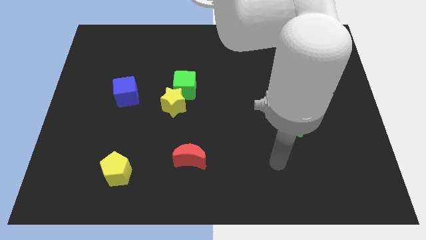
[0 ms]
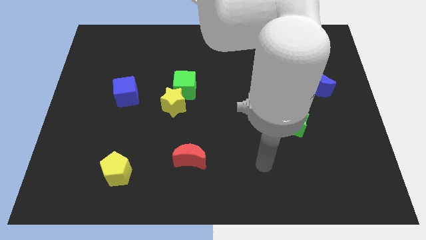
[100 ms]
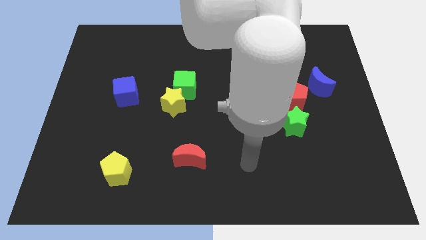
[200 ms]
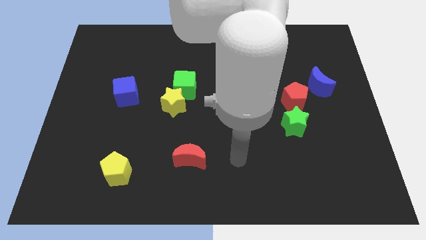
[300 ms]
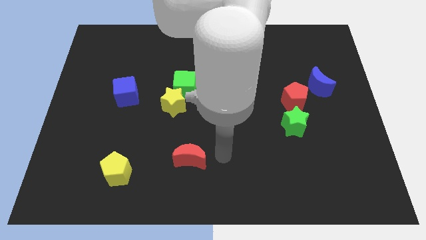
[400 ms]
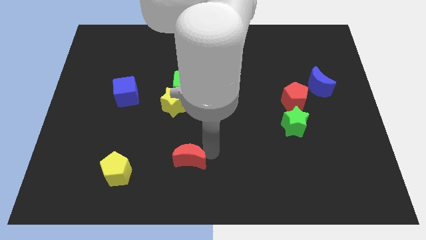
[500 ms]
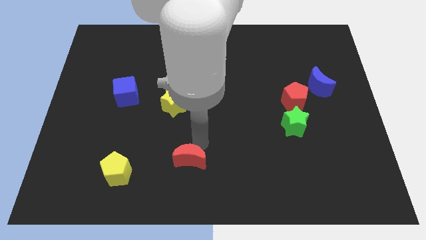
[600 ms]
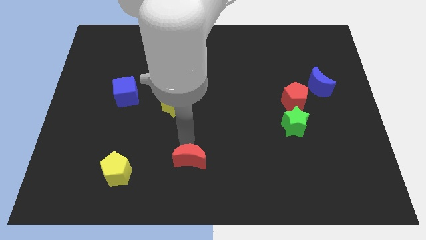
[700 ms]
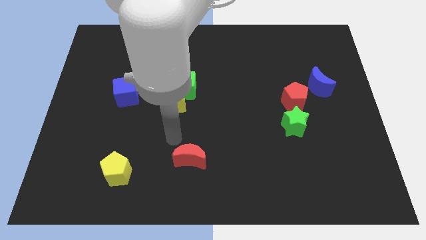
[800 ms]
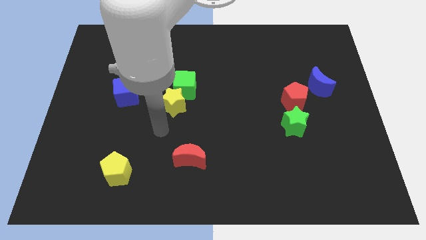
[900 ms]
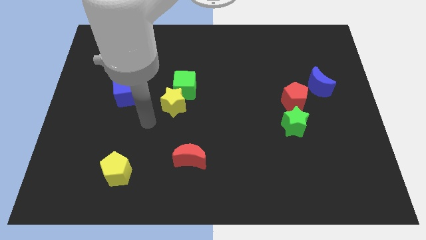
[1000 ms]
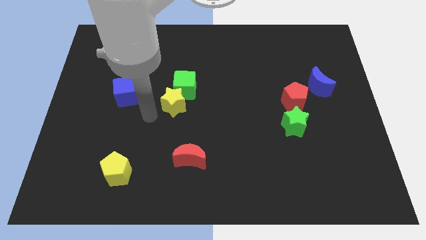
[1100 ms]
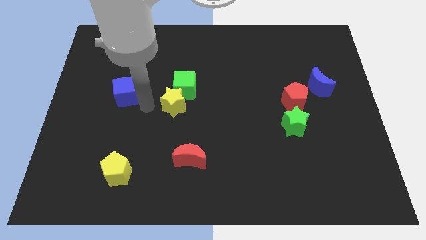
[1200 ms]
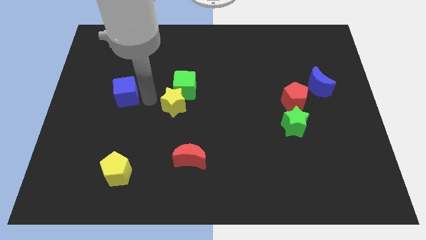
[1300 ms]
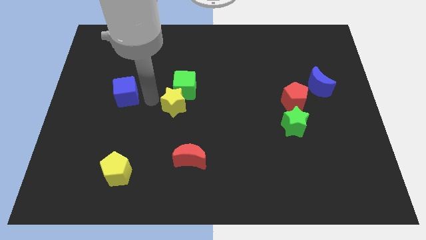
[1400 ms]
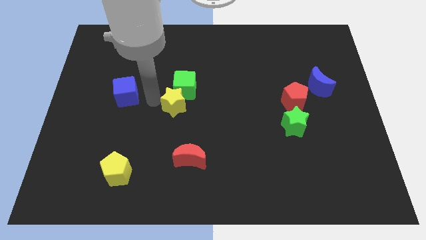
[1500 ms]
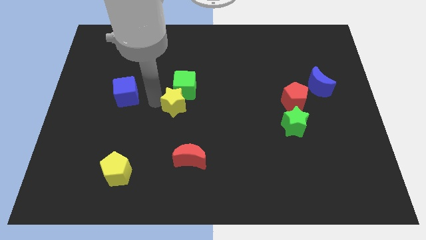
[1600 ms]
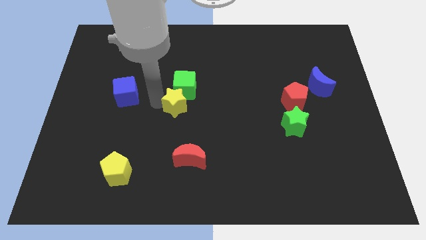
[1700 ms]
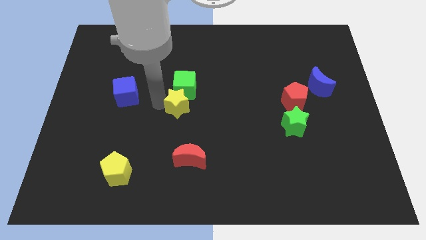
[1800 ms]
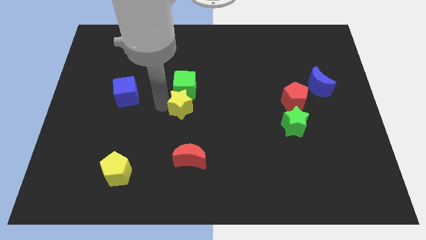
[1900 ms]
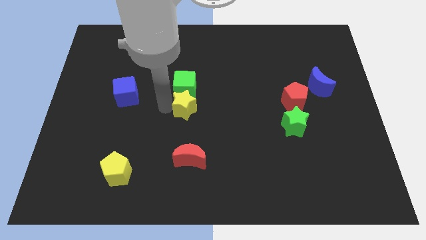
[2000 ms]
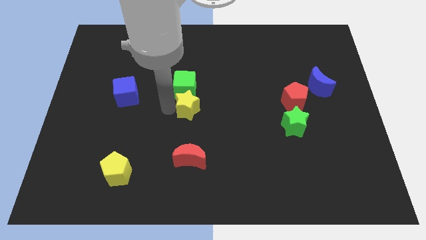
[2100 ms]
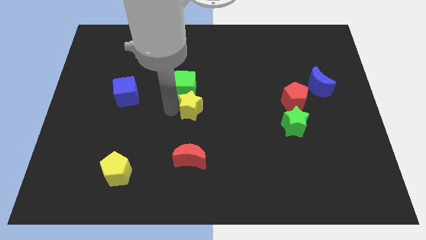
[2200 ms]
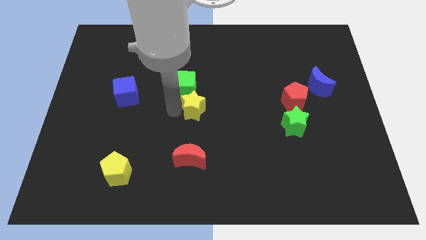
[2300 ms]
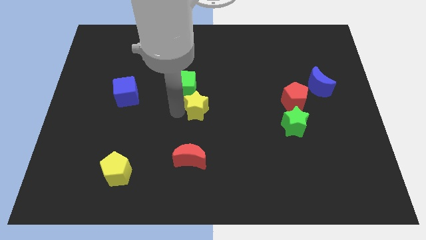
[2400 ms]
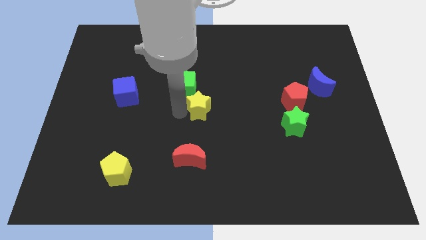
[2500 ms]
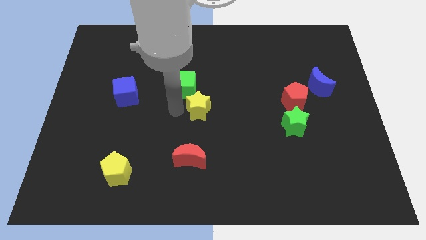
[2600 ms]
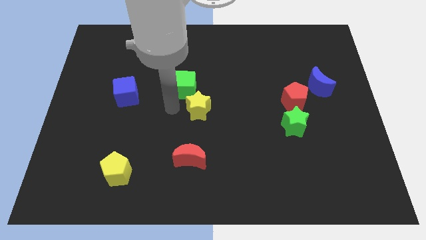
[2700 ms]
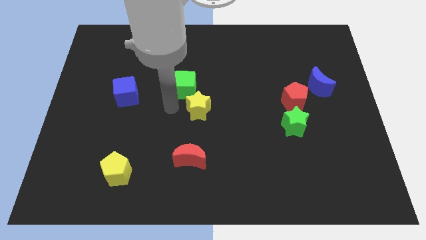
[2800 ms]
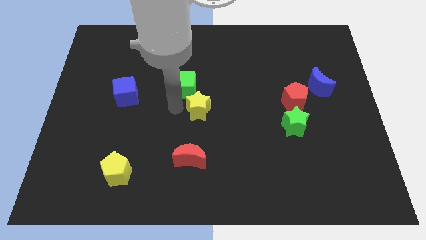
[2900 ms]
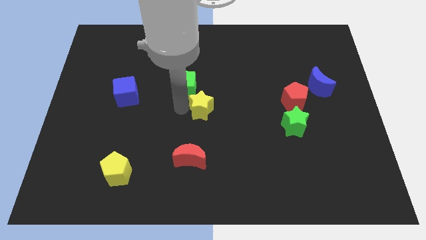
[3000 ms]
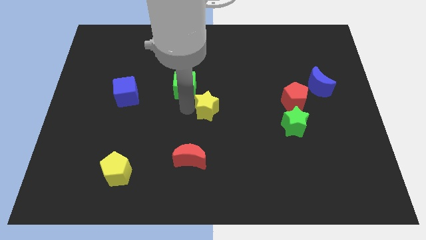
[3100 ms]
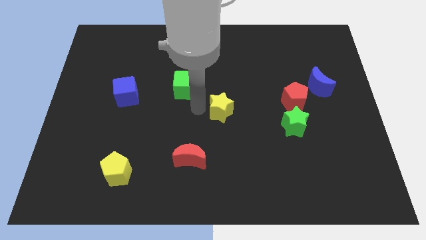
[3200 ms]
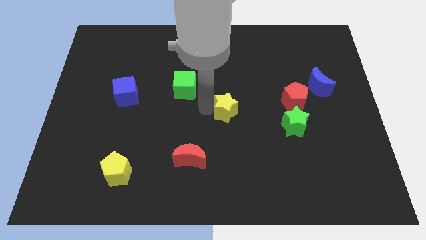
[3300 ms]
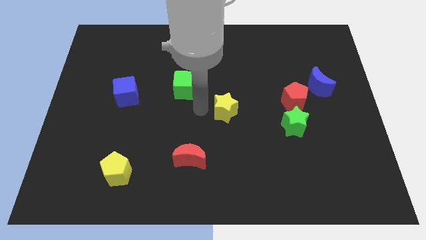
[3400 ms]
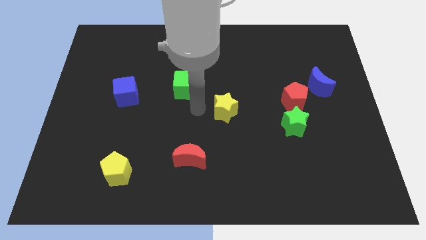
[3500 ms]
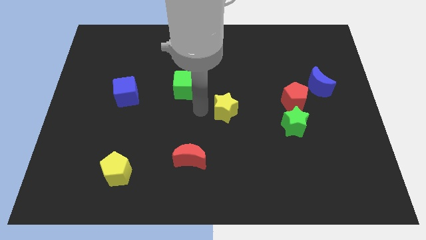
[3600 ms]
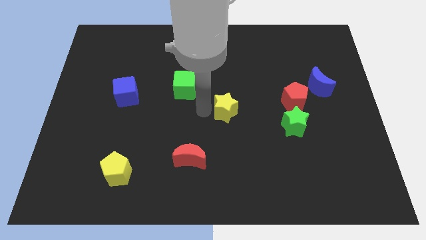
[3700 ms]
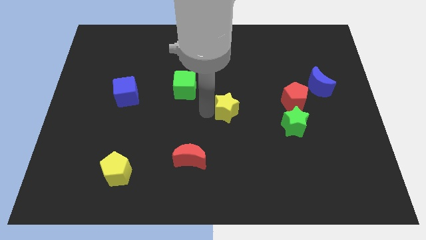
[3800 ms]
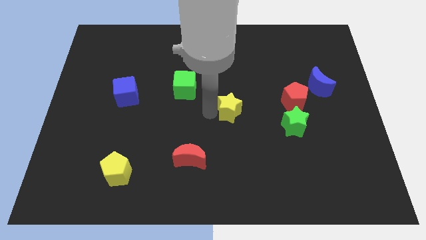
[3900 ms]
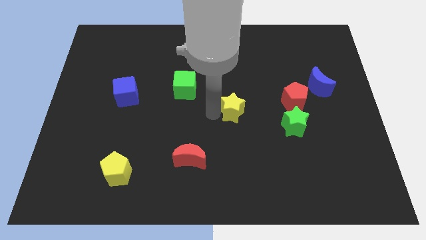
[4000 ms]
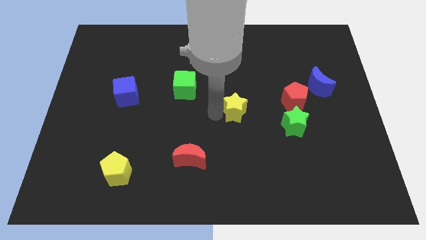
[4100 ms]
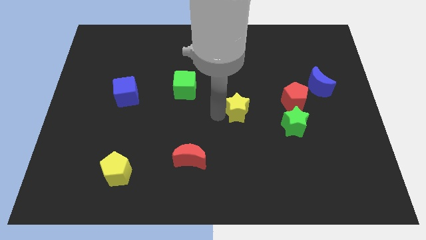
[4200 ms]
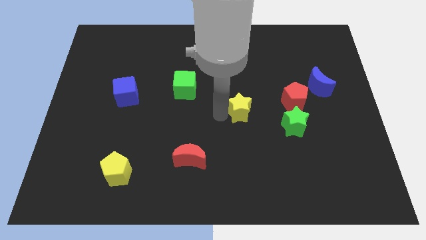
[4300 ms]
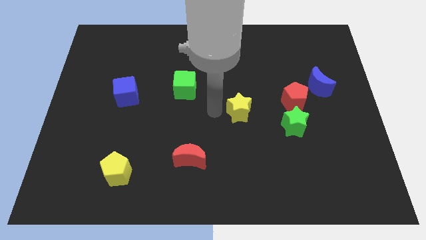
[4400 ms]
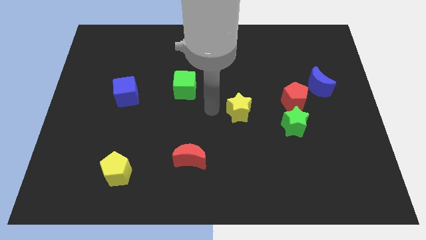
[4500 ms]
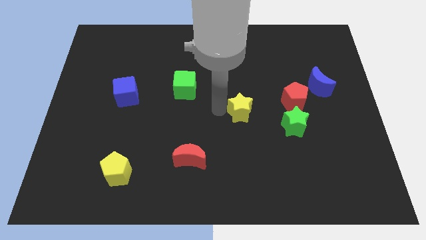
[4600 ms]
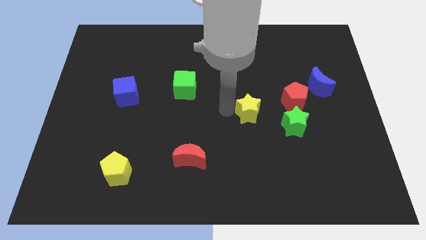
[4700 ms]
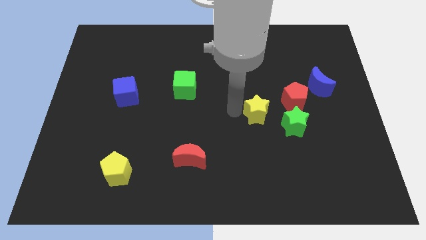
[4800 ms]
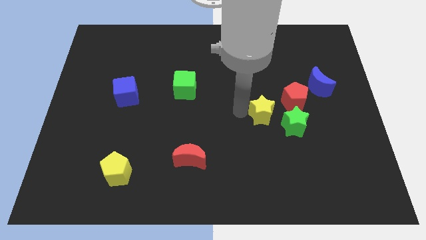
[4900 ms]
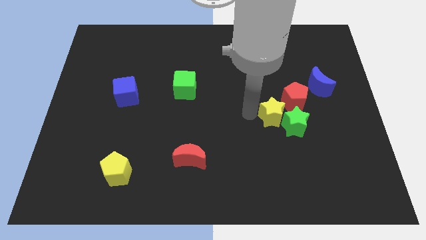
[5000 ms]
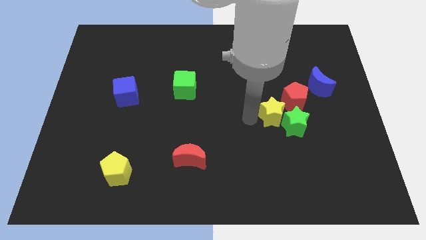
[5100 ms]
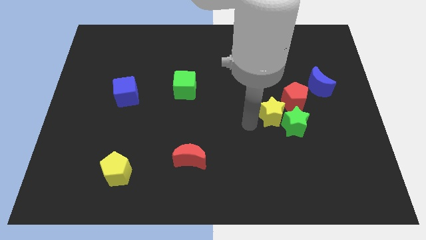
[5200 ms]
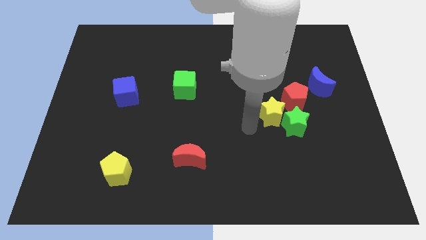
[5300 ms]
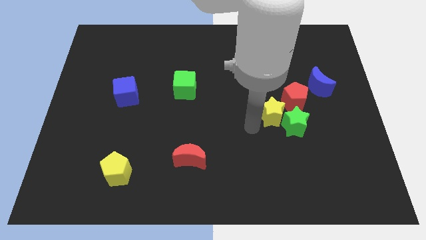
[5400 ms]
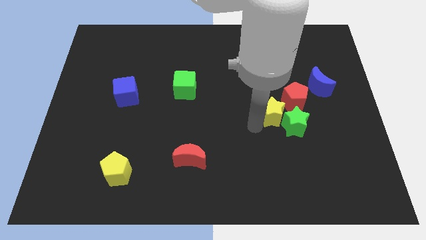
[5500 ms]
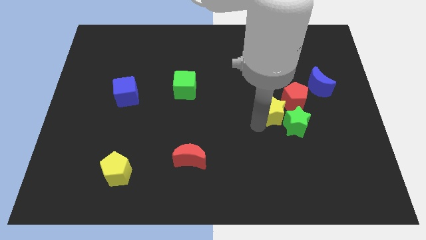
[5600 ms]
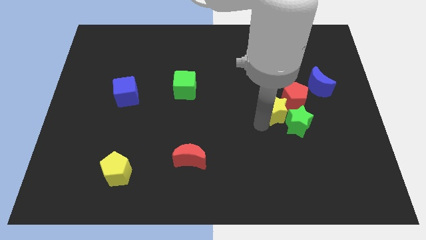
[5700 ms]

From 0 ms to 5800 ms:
slide the yellow star close to the red pentagon

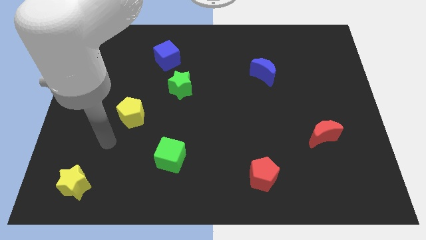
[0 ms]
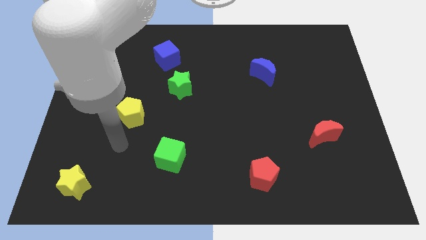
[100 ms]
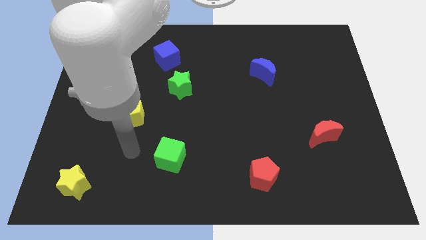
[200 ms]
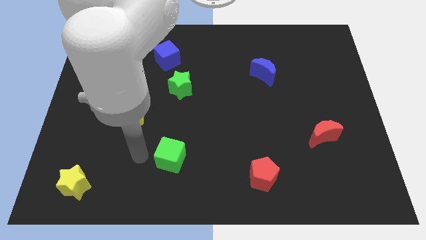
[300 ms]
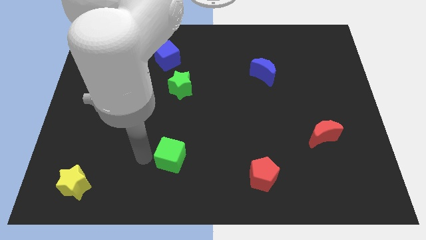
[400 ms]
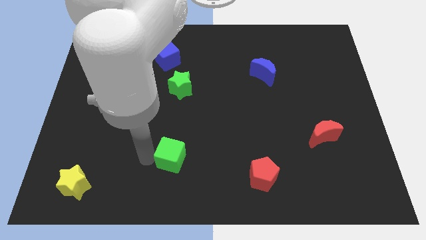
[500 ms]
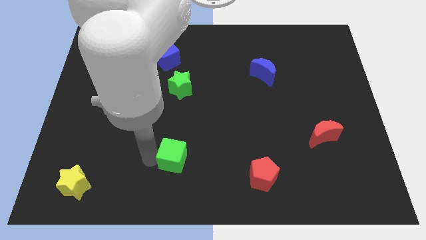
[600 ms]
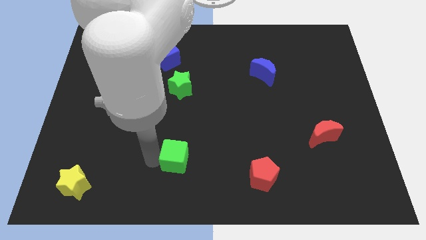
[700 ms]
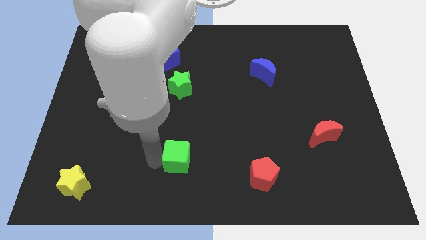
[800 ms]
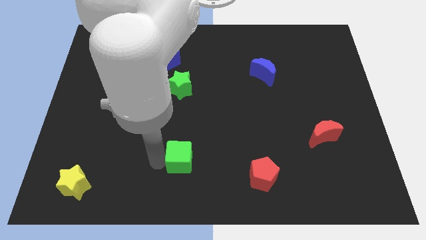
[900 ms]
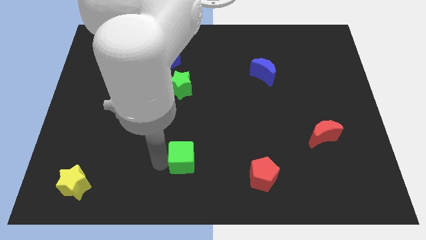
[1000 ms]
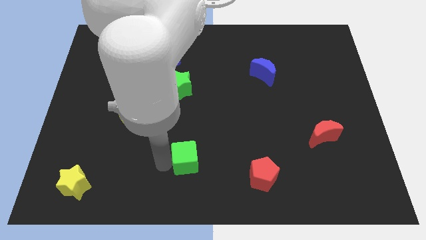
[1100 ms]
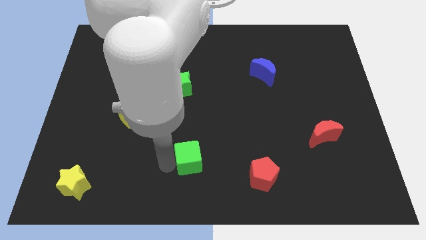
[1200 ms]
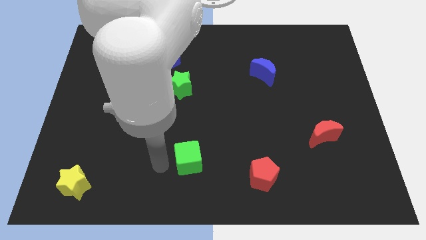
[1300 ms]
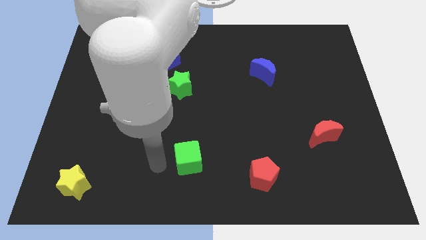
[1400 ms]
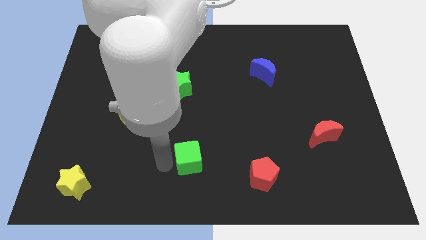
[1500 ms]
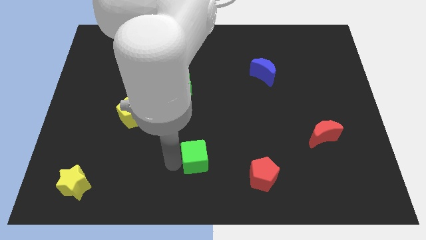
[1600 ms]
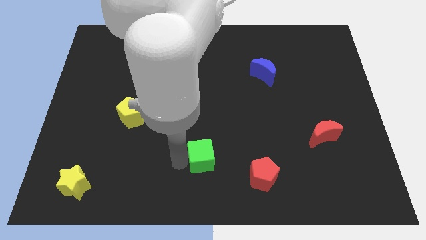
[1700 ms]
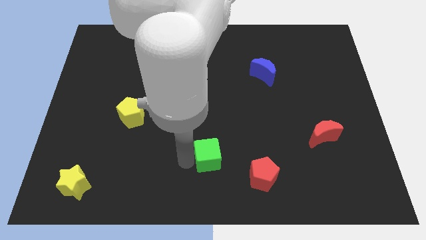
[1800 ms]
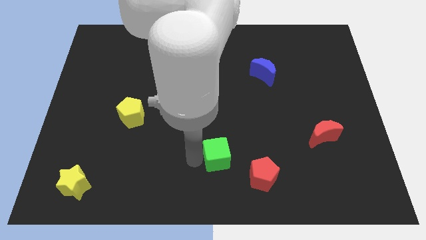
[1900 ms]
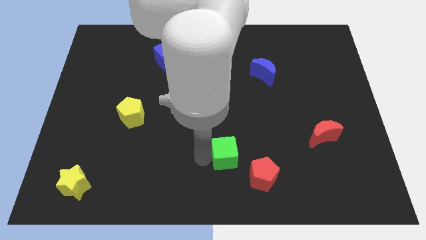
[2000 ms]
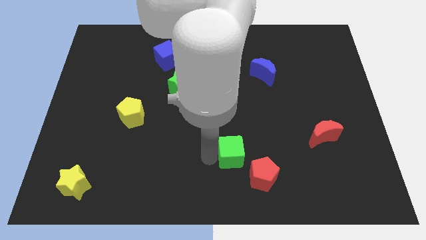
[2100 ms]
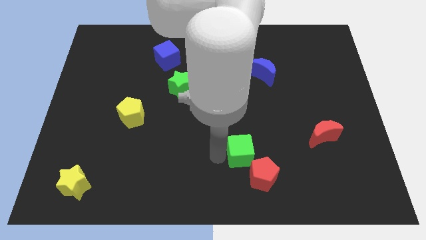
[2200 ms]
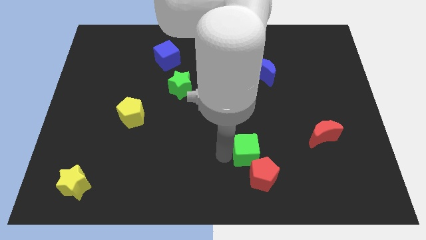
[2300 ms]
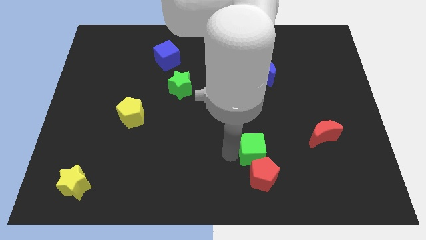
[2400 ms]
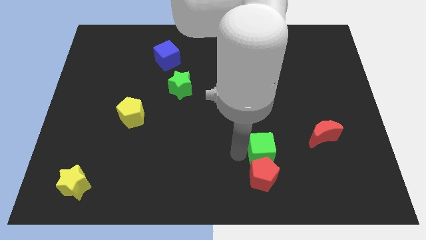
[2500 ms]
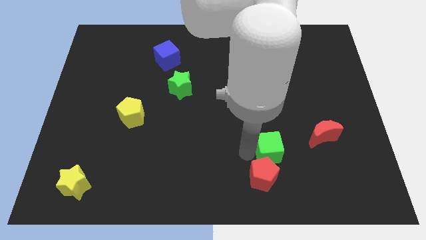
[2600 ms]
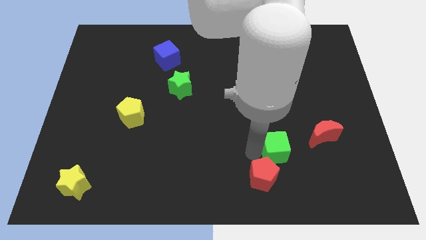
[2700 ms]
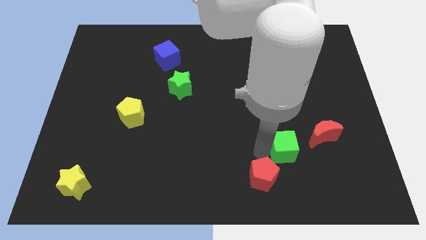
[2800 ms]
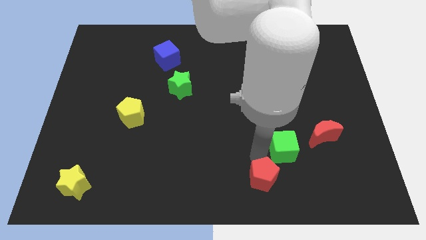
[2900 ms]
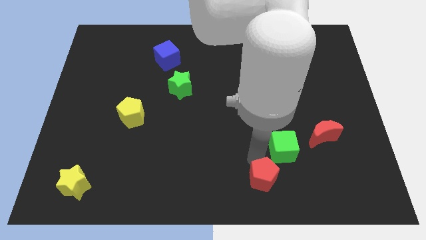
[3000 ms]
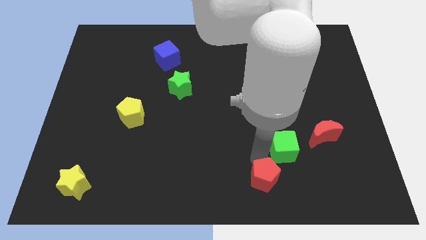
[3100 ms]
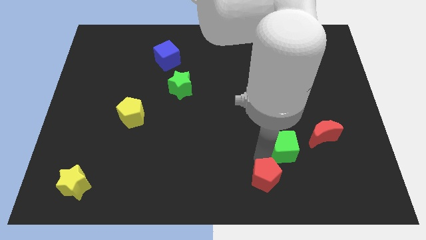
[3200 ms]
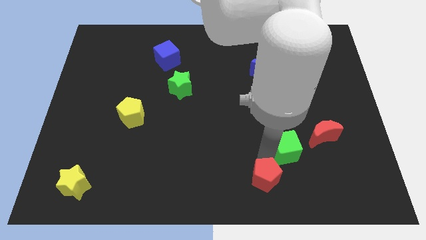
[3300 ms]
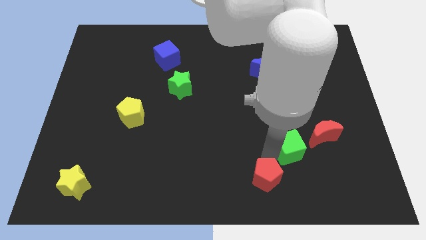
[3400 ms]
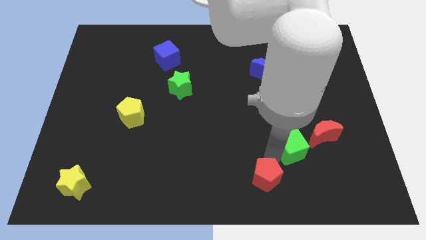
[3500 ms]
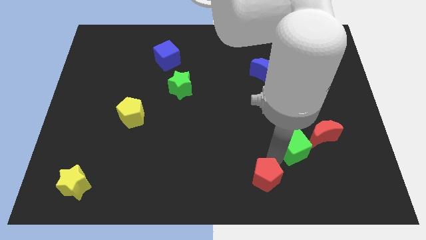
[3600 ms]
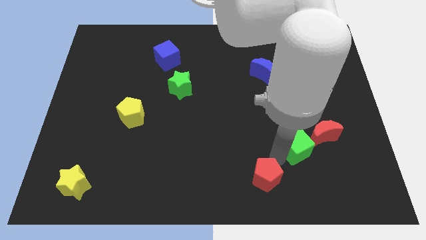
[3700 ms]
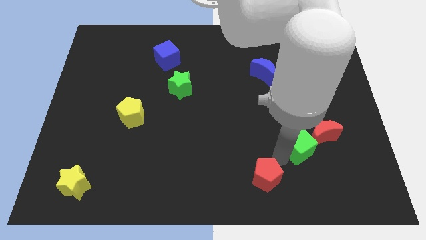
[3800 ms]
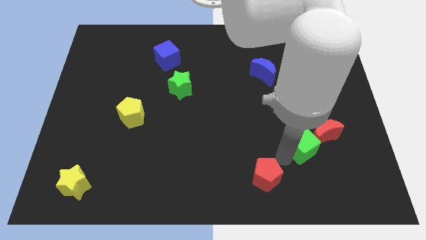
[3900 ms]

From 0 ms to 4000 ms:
slide the green cube to the red moon
